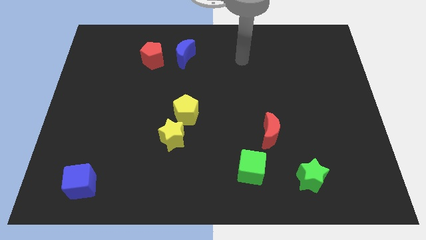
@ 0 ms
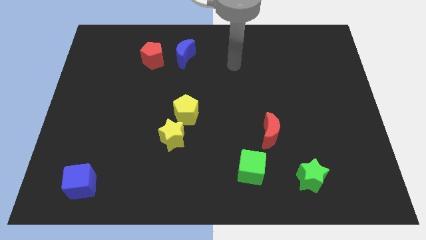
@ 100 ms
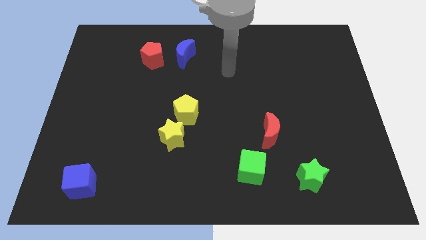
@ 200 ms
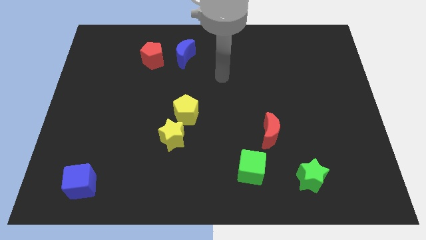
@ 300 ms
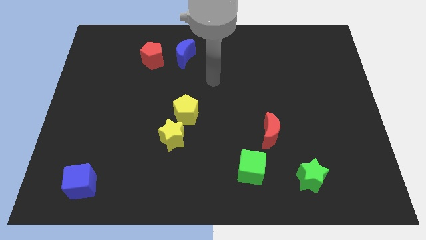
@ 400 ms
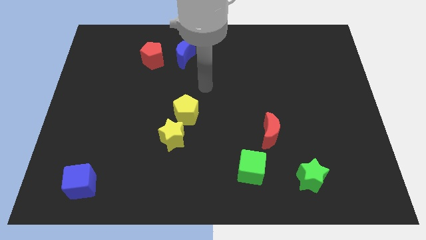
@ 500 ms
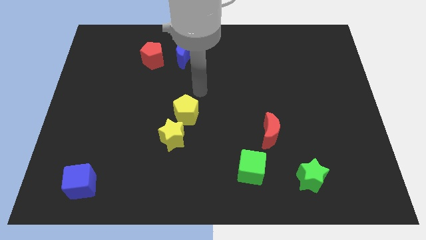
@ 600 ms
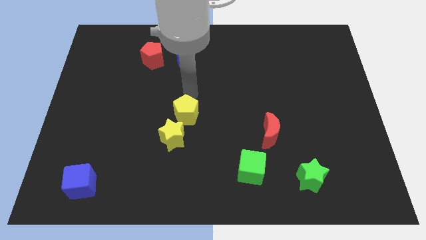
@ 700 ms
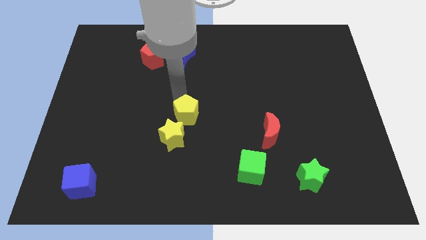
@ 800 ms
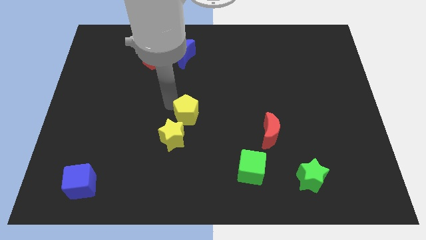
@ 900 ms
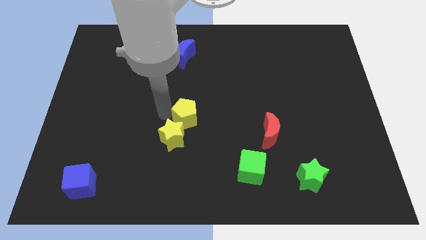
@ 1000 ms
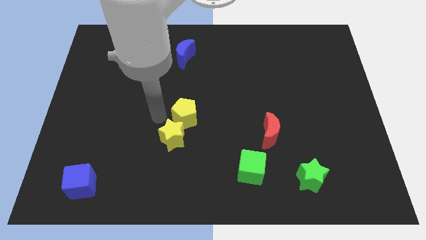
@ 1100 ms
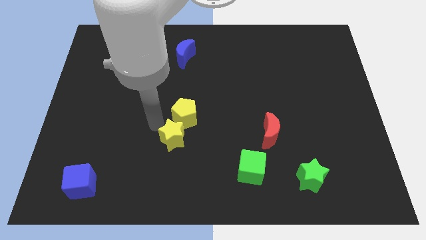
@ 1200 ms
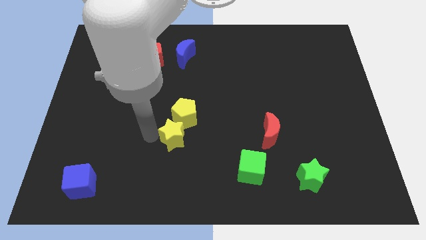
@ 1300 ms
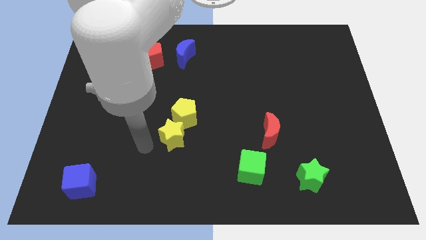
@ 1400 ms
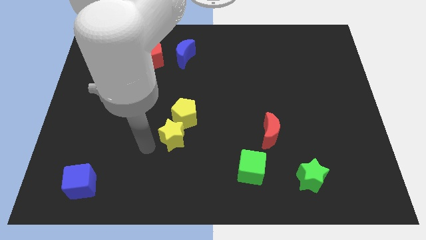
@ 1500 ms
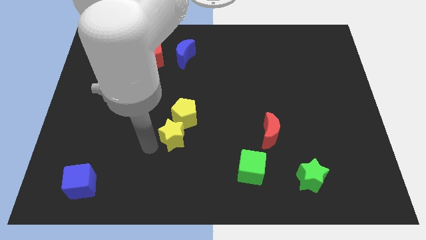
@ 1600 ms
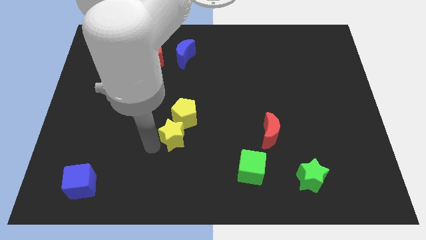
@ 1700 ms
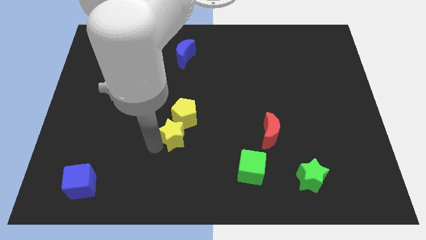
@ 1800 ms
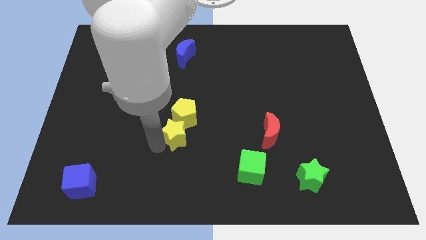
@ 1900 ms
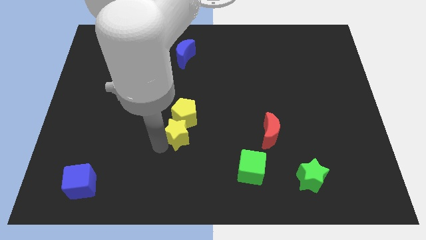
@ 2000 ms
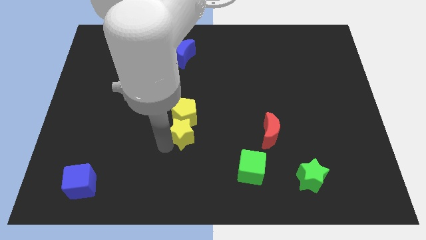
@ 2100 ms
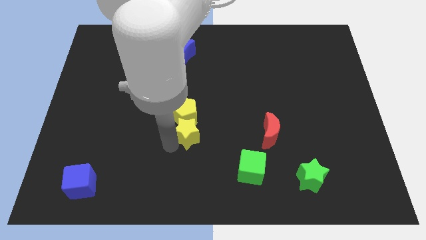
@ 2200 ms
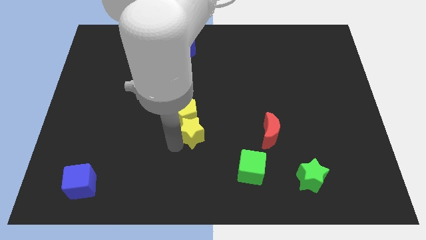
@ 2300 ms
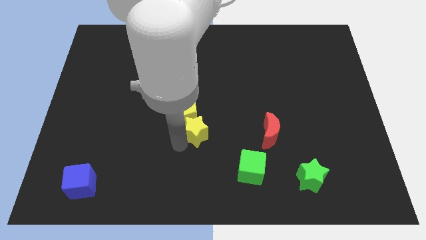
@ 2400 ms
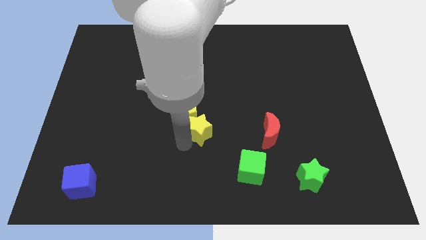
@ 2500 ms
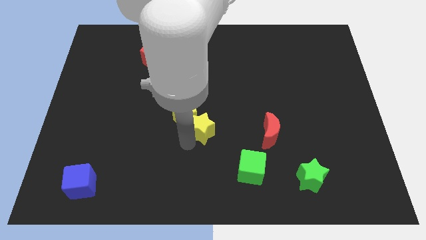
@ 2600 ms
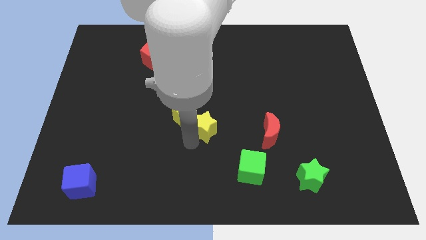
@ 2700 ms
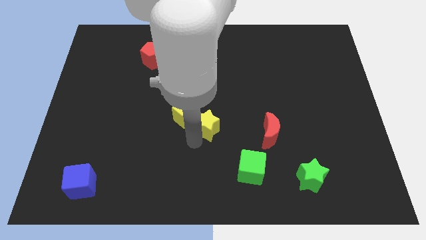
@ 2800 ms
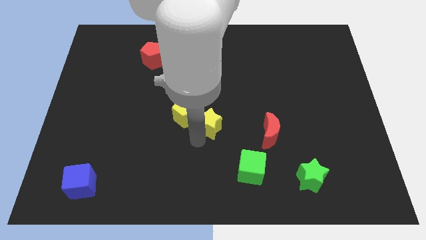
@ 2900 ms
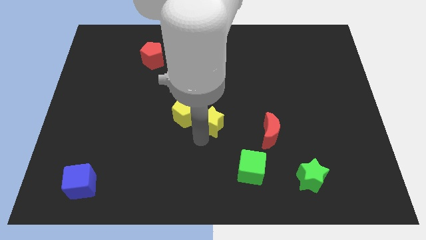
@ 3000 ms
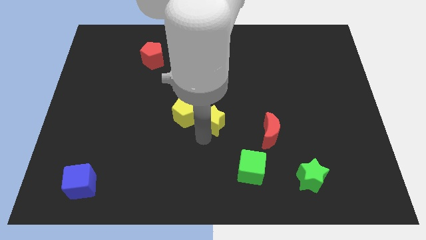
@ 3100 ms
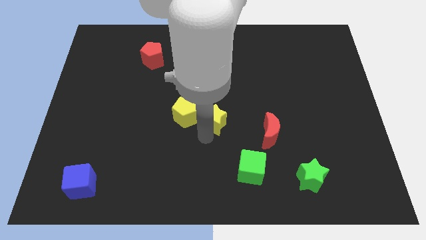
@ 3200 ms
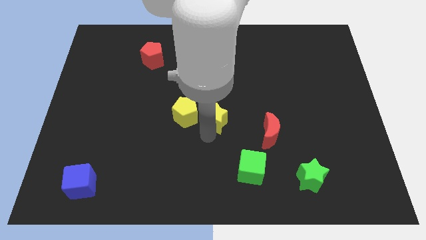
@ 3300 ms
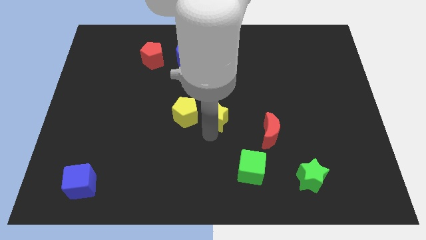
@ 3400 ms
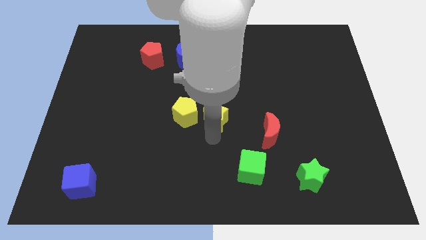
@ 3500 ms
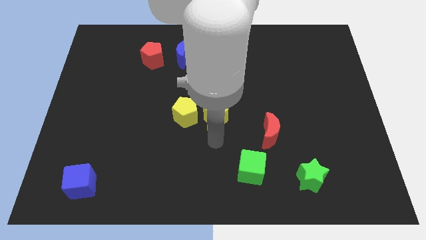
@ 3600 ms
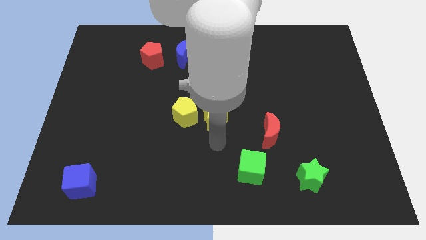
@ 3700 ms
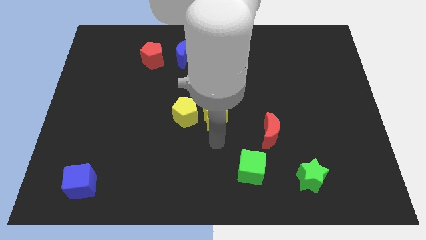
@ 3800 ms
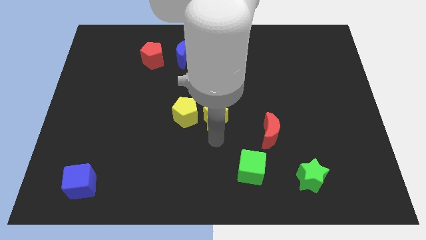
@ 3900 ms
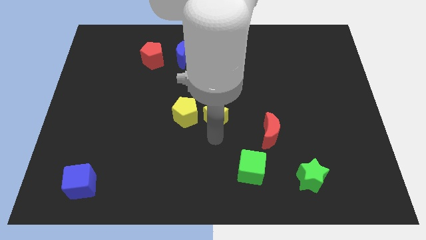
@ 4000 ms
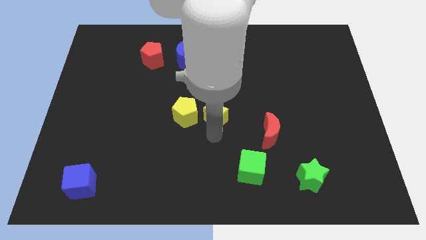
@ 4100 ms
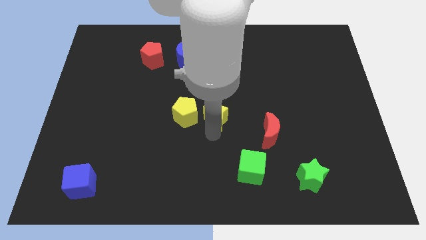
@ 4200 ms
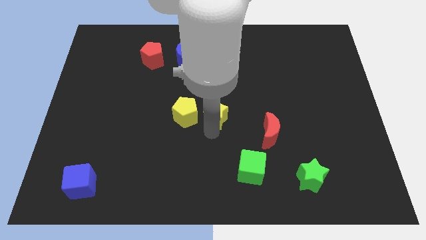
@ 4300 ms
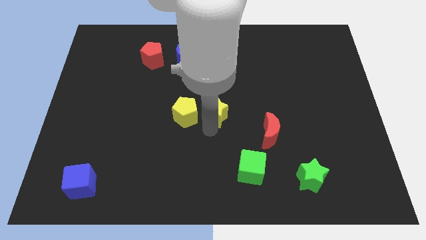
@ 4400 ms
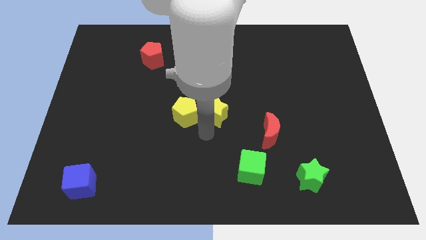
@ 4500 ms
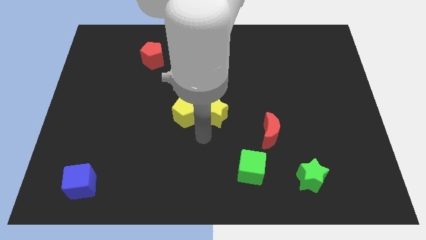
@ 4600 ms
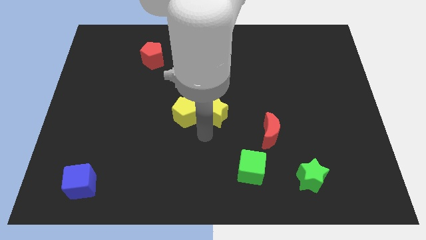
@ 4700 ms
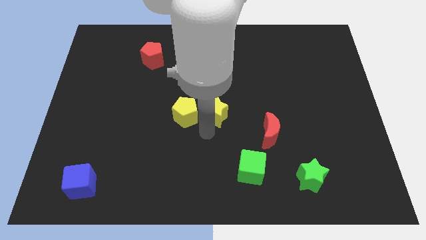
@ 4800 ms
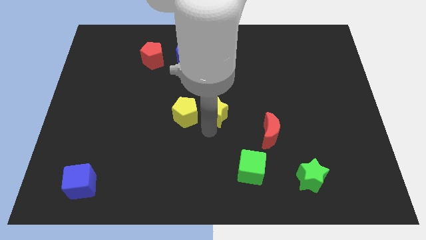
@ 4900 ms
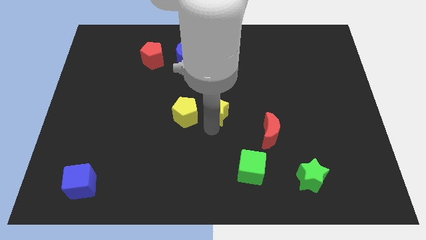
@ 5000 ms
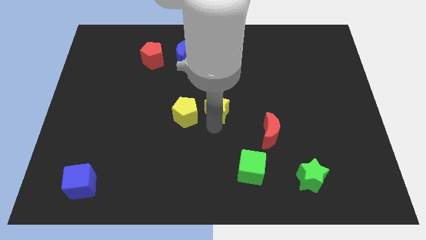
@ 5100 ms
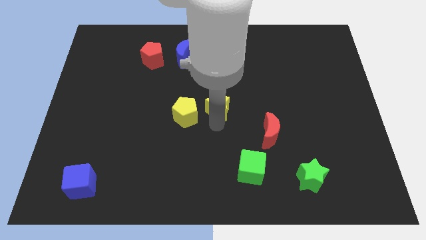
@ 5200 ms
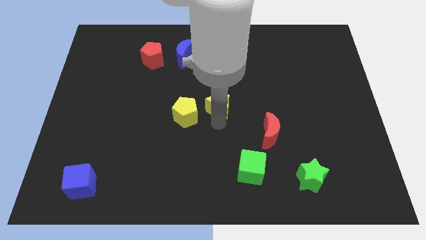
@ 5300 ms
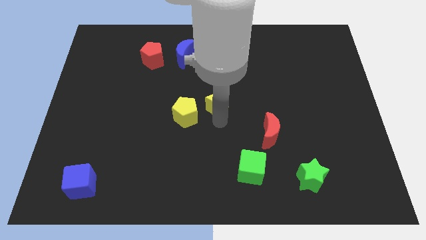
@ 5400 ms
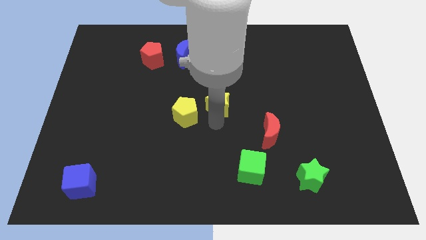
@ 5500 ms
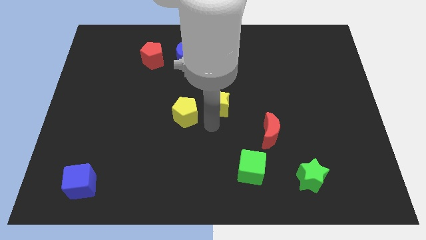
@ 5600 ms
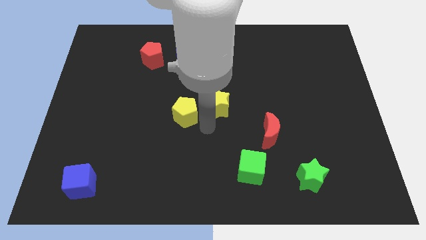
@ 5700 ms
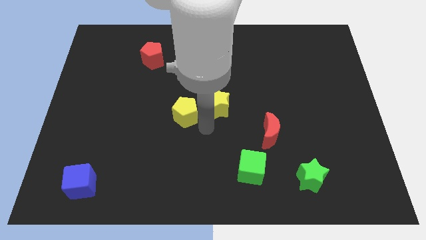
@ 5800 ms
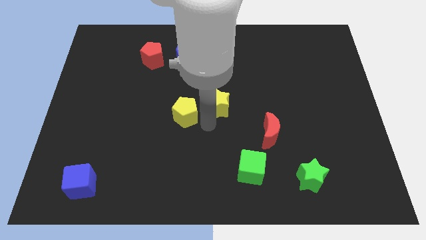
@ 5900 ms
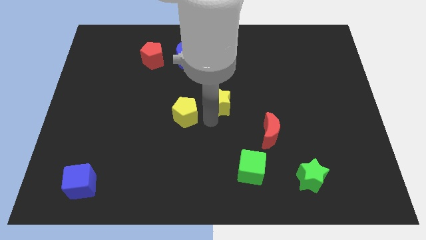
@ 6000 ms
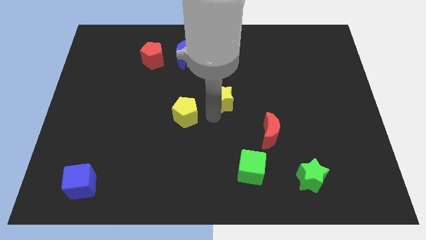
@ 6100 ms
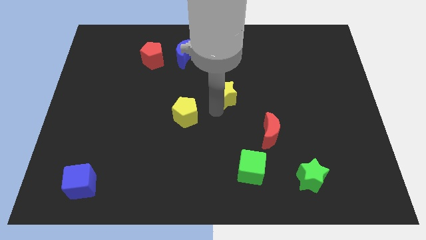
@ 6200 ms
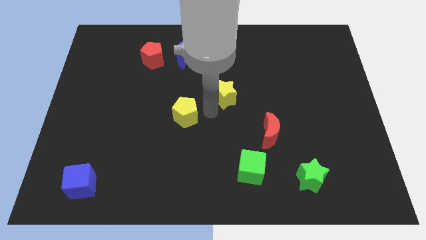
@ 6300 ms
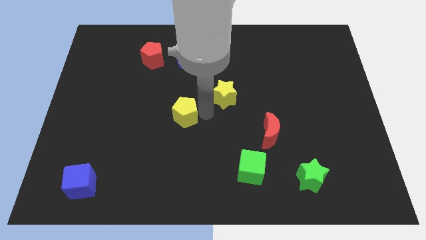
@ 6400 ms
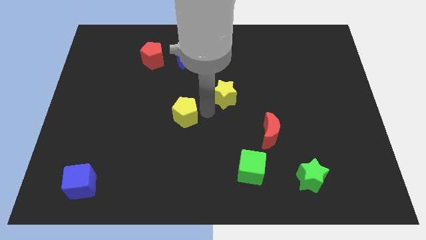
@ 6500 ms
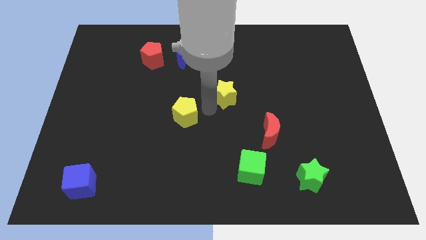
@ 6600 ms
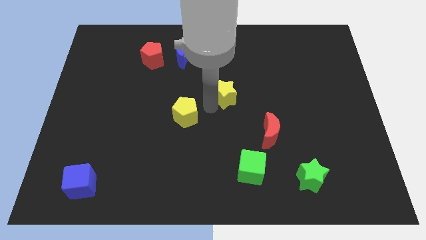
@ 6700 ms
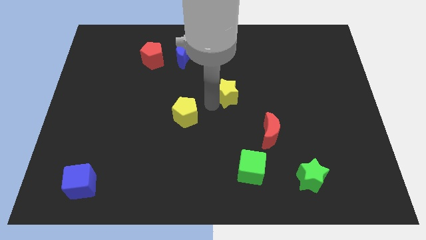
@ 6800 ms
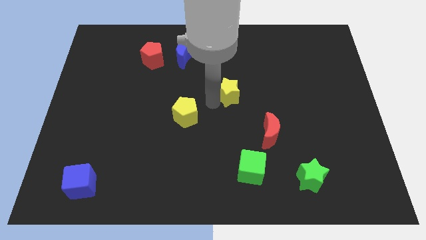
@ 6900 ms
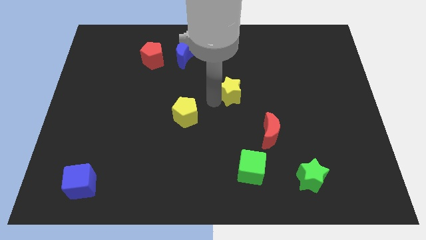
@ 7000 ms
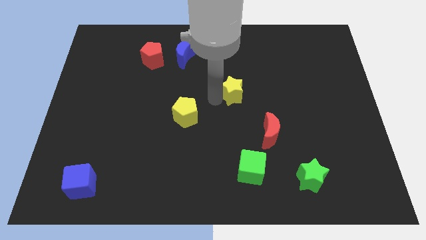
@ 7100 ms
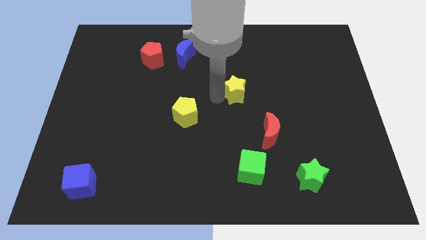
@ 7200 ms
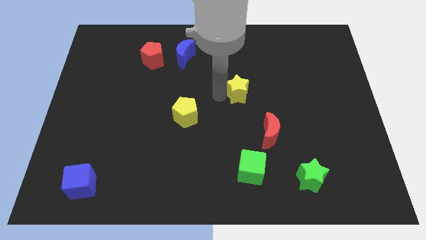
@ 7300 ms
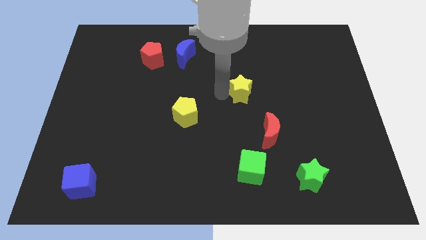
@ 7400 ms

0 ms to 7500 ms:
push the yellow star diagonally upwards and to the right

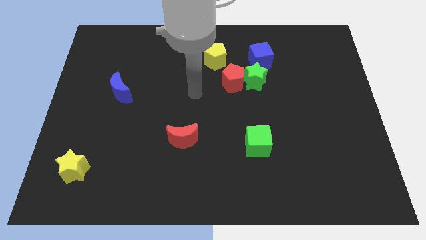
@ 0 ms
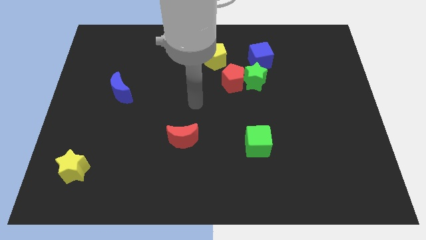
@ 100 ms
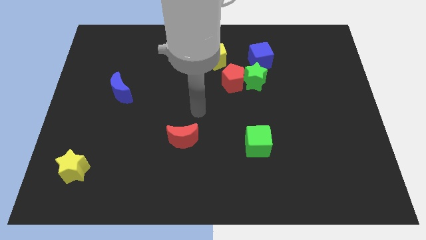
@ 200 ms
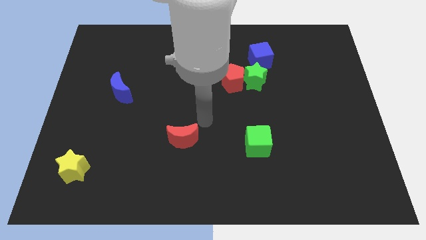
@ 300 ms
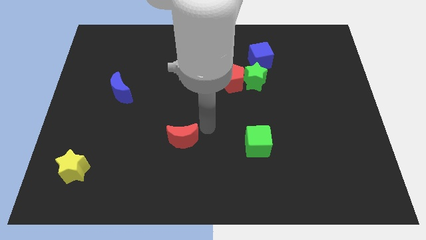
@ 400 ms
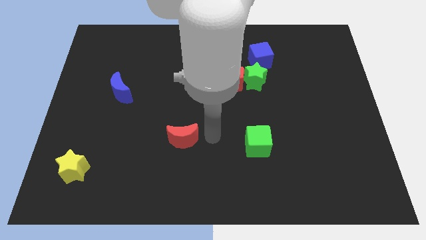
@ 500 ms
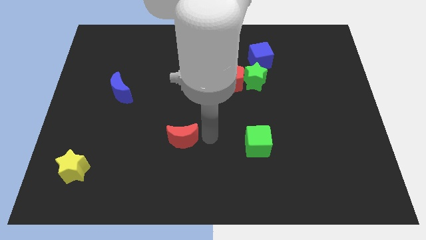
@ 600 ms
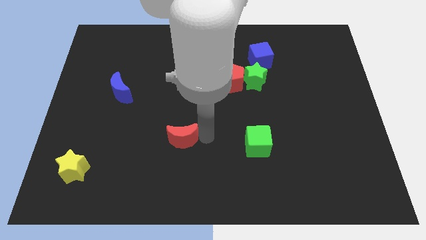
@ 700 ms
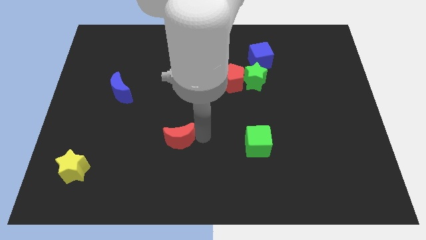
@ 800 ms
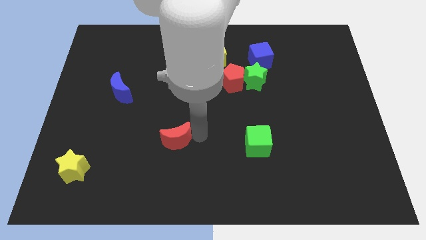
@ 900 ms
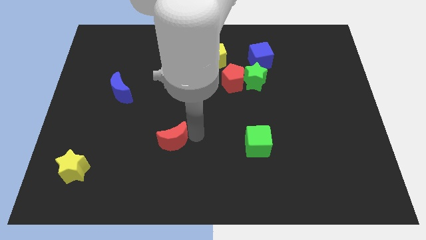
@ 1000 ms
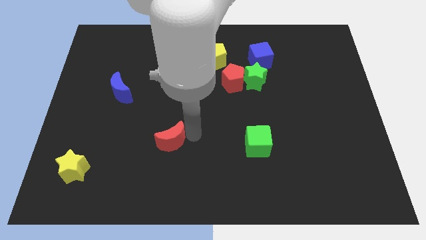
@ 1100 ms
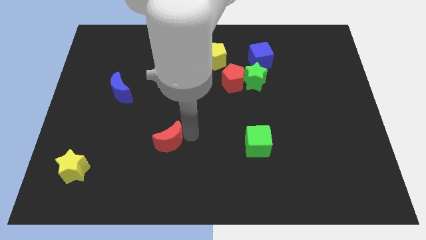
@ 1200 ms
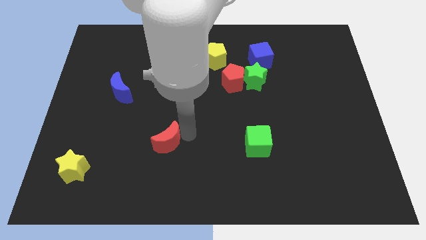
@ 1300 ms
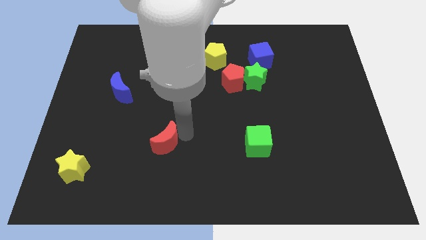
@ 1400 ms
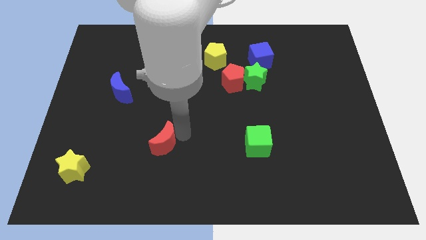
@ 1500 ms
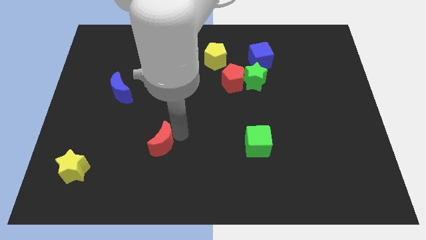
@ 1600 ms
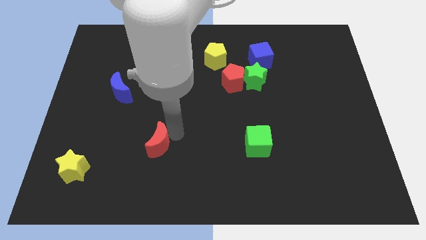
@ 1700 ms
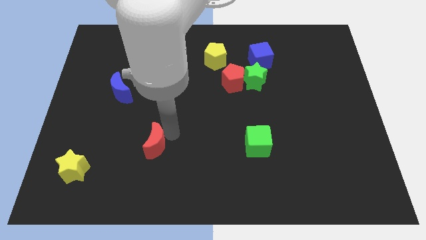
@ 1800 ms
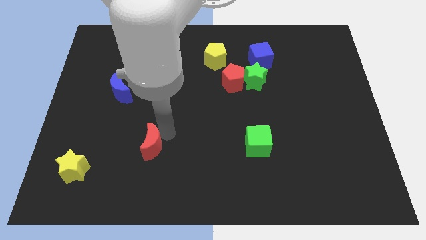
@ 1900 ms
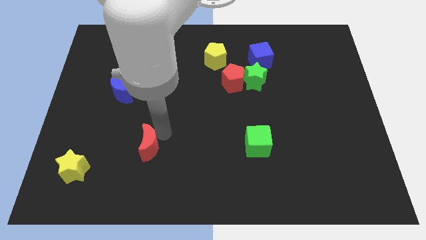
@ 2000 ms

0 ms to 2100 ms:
push the red moon left somewhat
